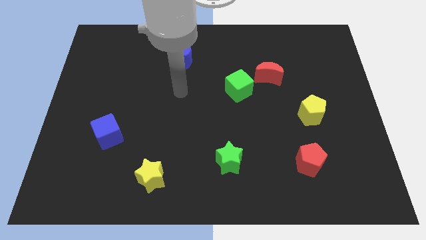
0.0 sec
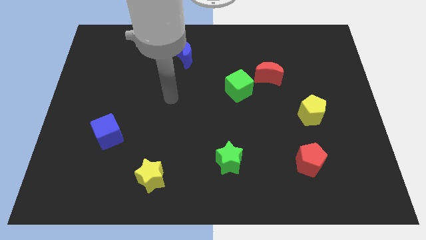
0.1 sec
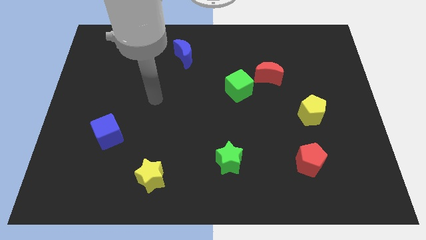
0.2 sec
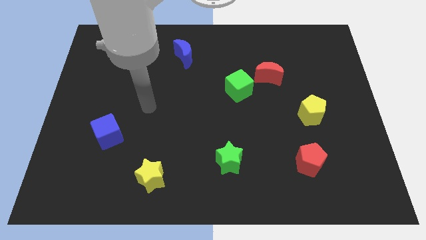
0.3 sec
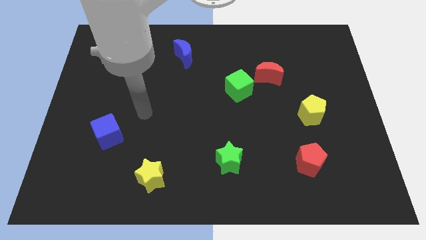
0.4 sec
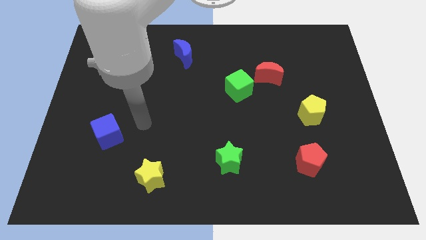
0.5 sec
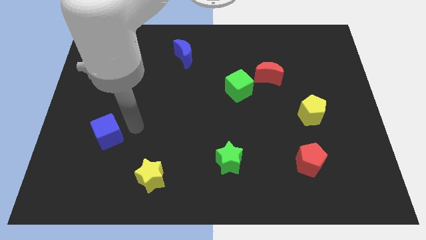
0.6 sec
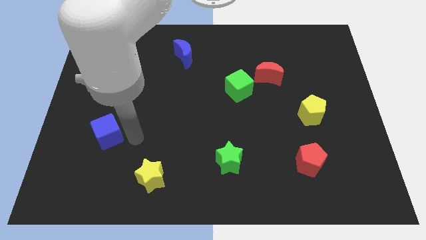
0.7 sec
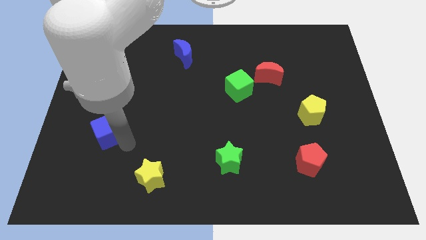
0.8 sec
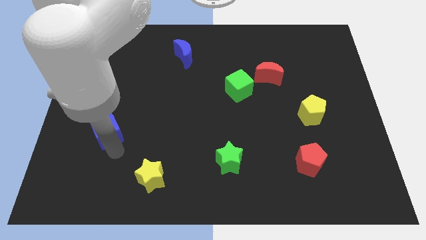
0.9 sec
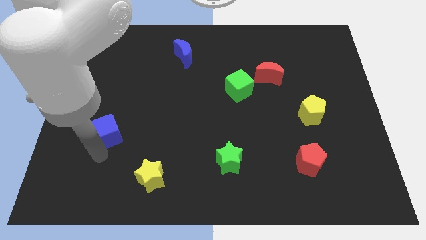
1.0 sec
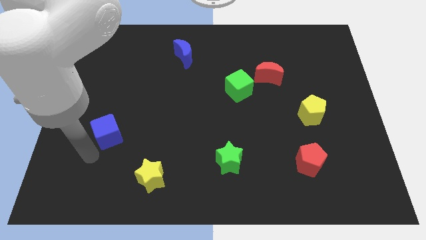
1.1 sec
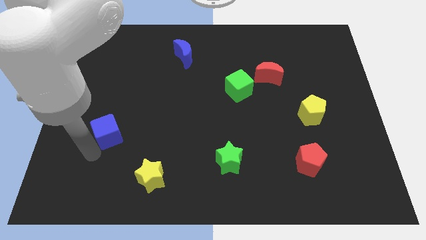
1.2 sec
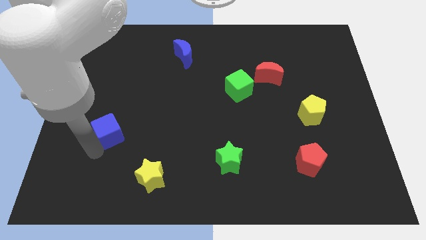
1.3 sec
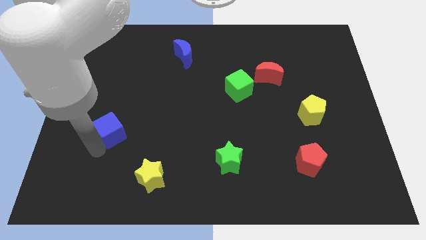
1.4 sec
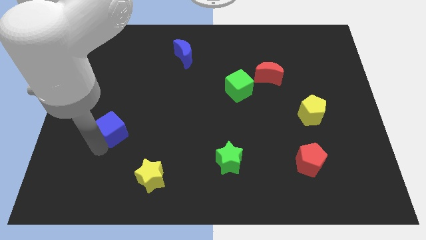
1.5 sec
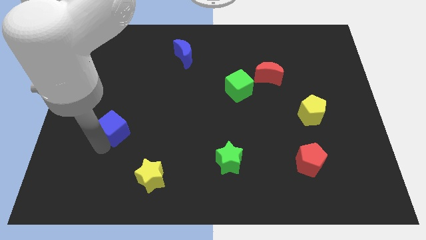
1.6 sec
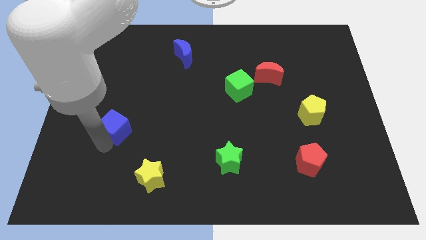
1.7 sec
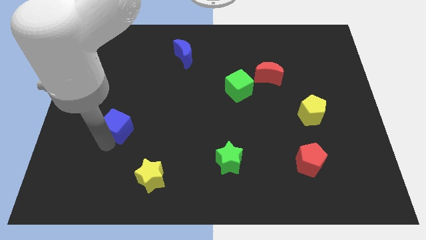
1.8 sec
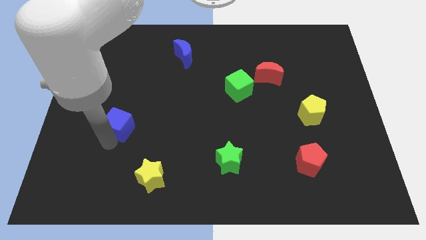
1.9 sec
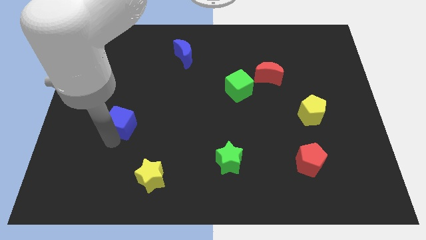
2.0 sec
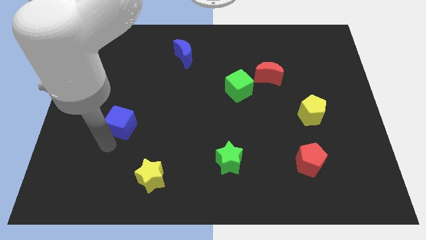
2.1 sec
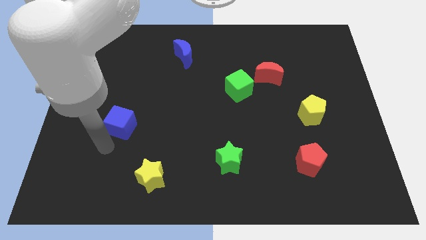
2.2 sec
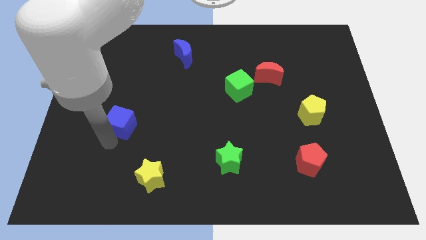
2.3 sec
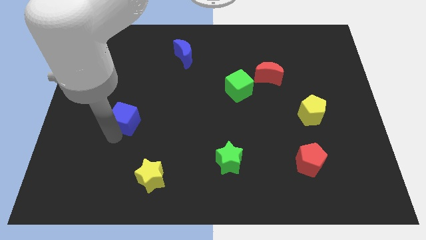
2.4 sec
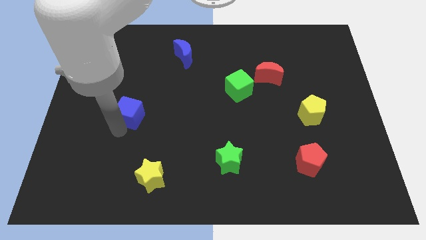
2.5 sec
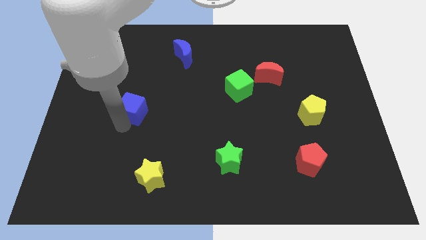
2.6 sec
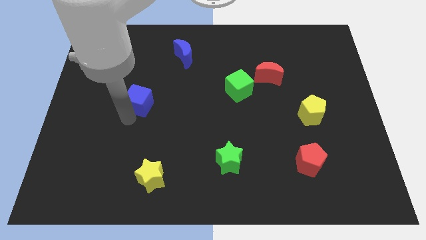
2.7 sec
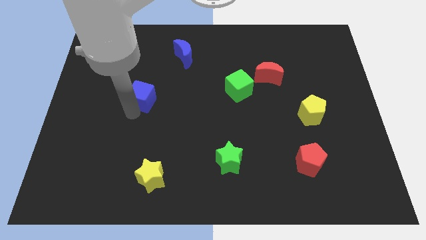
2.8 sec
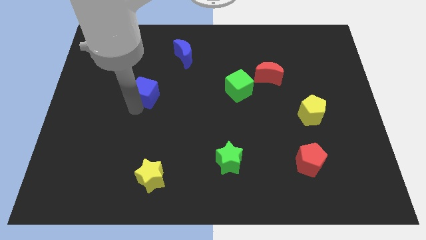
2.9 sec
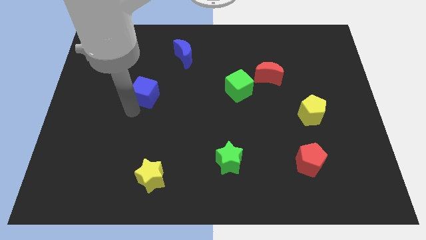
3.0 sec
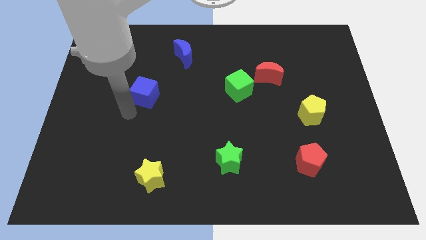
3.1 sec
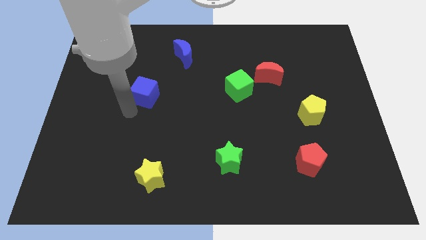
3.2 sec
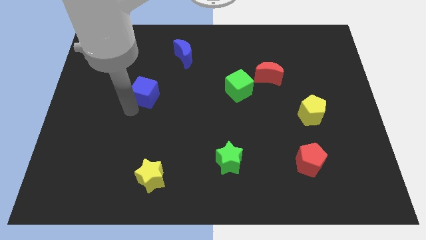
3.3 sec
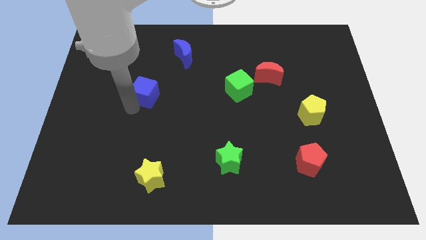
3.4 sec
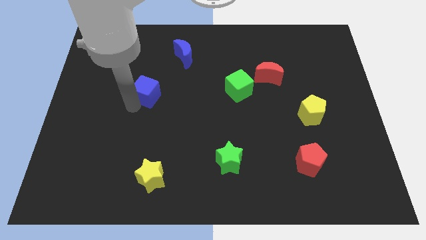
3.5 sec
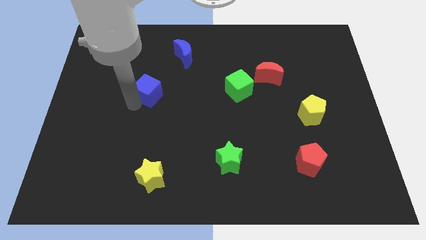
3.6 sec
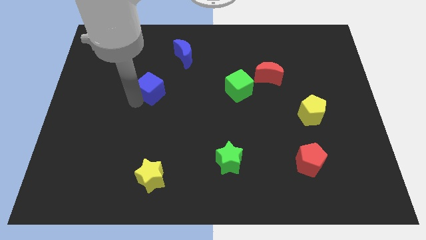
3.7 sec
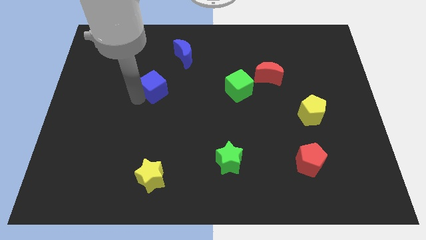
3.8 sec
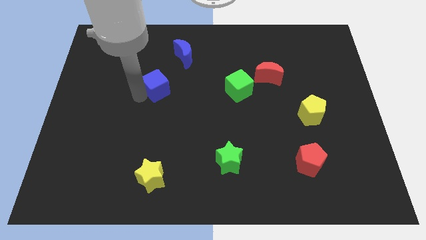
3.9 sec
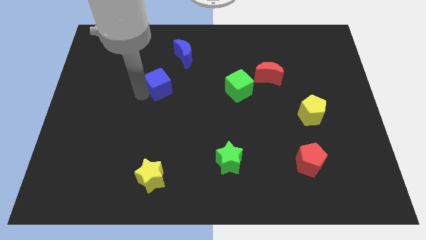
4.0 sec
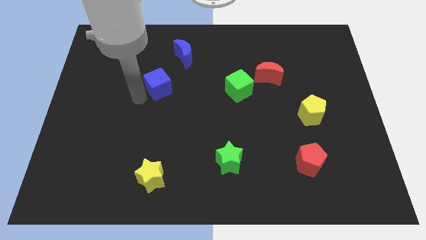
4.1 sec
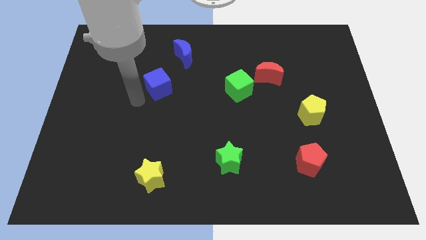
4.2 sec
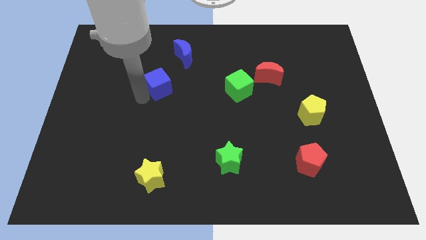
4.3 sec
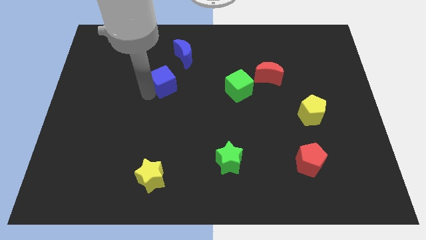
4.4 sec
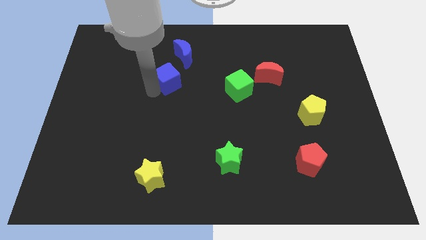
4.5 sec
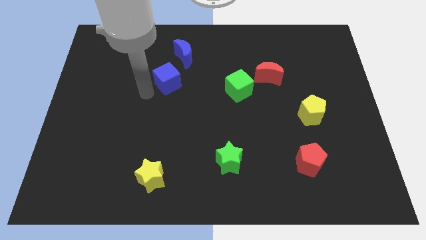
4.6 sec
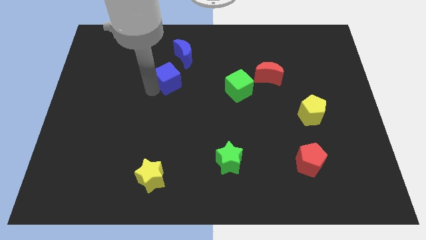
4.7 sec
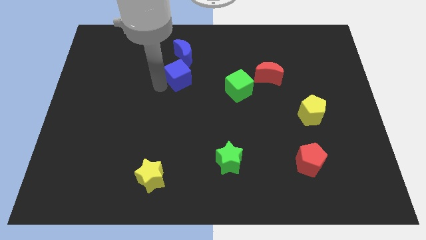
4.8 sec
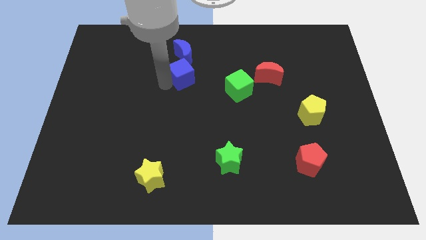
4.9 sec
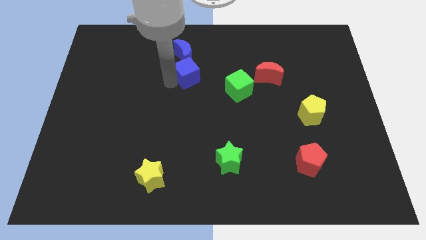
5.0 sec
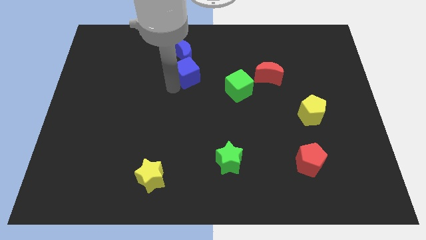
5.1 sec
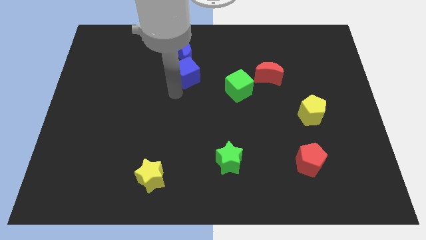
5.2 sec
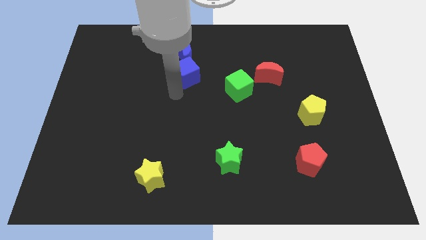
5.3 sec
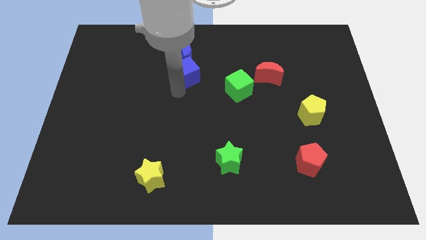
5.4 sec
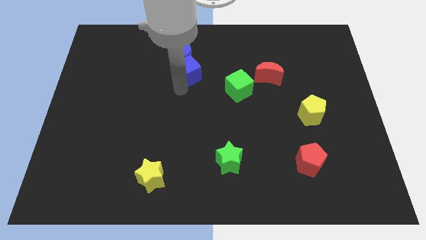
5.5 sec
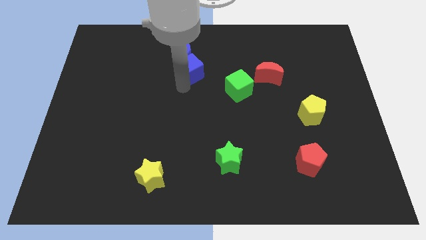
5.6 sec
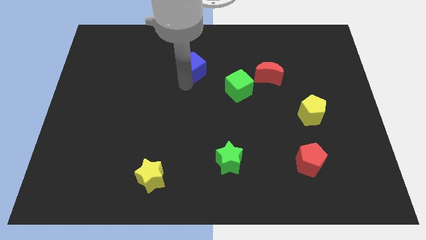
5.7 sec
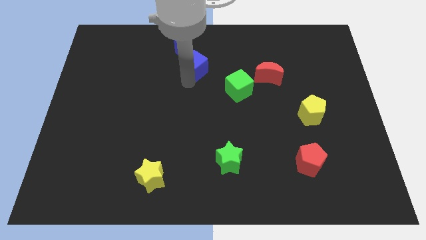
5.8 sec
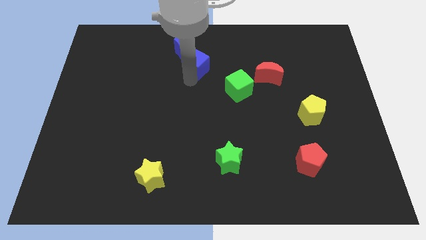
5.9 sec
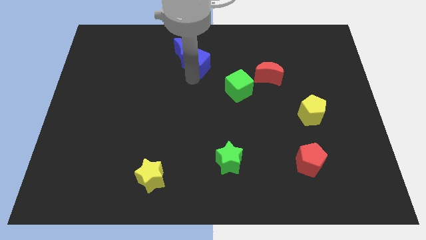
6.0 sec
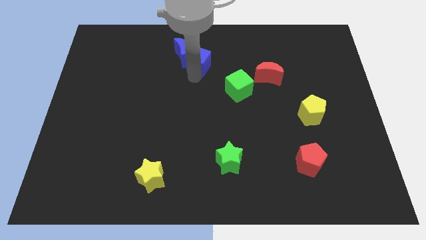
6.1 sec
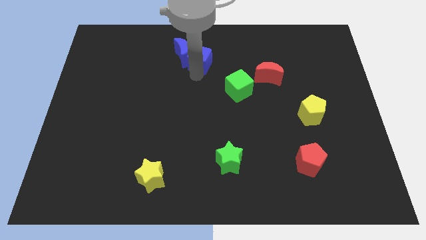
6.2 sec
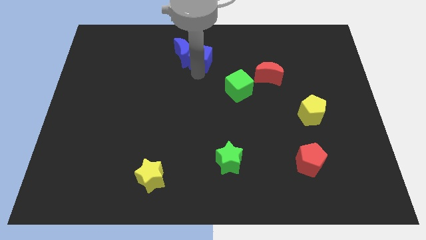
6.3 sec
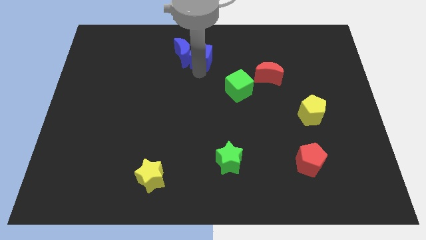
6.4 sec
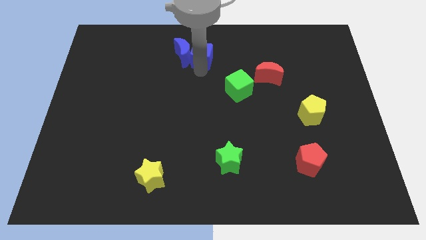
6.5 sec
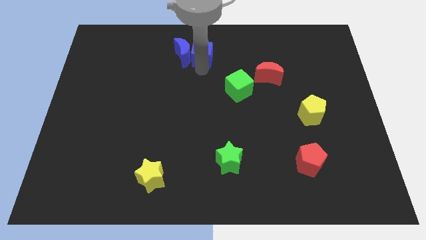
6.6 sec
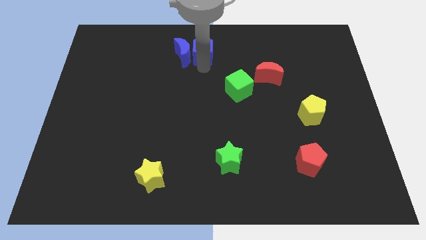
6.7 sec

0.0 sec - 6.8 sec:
put the blue cube to the top side

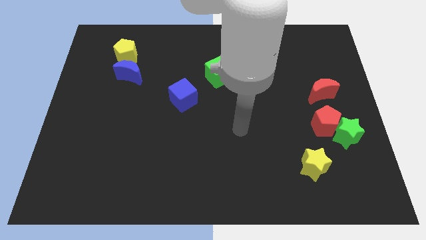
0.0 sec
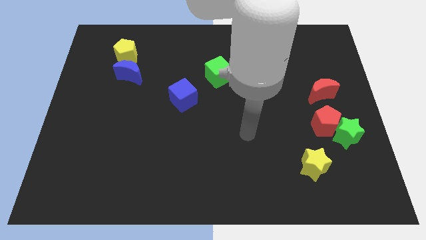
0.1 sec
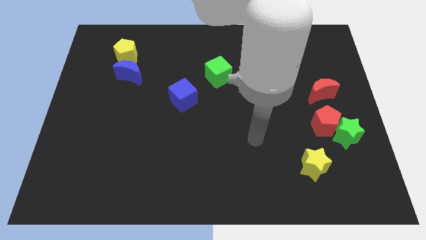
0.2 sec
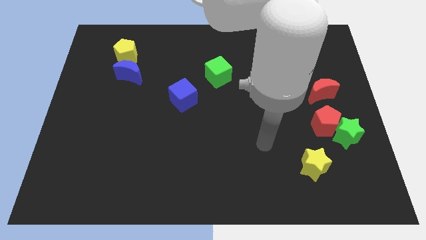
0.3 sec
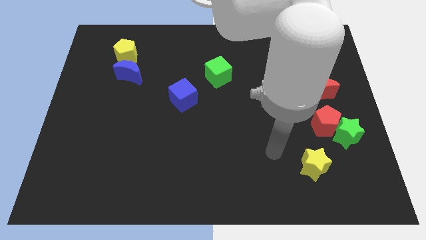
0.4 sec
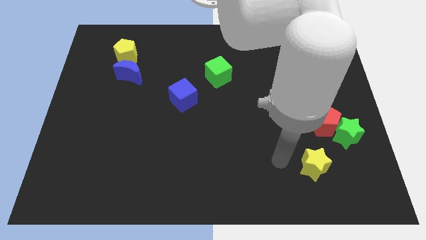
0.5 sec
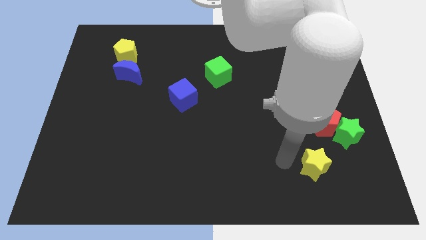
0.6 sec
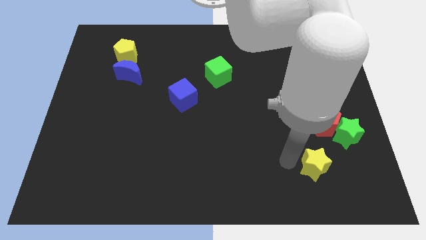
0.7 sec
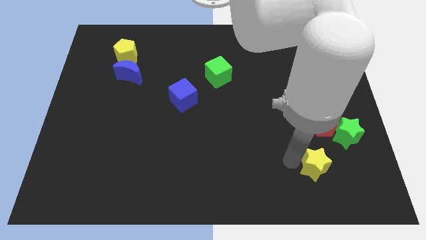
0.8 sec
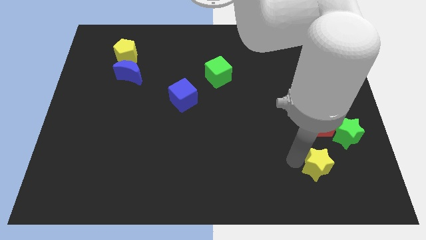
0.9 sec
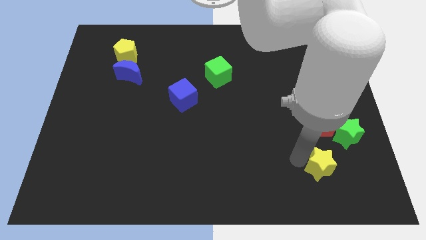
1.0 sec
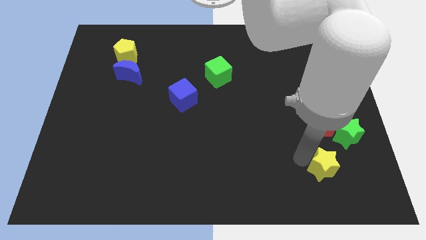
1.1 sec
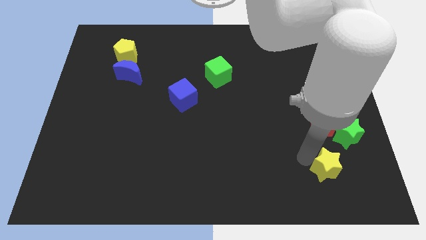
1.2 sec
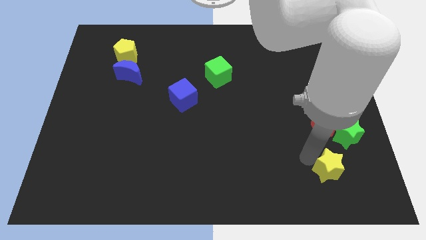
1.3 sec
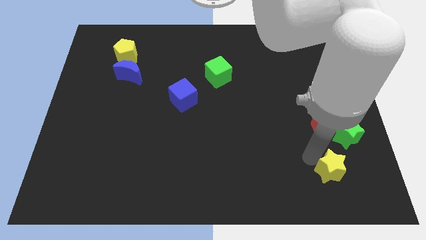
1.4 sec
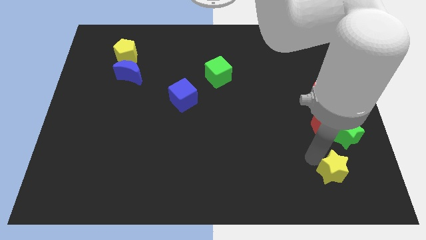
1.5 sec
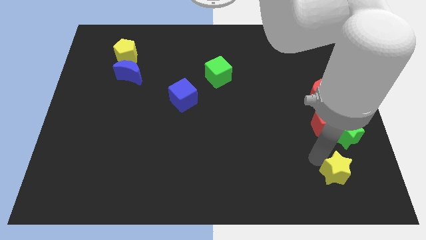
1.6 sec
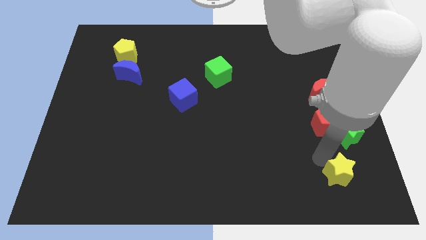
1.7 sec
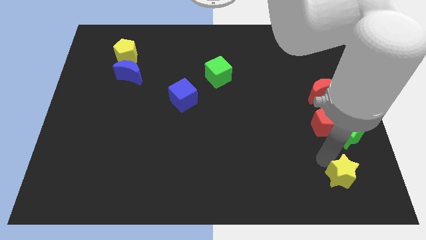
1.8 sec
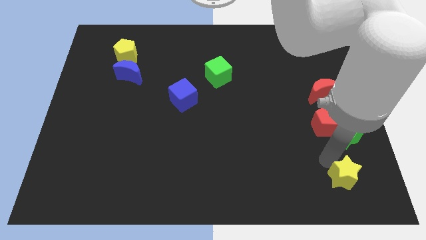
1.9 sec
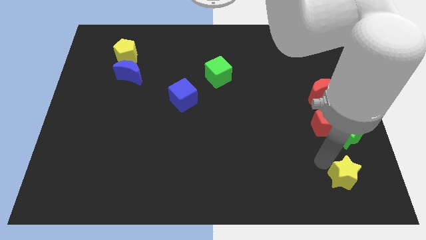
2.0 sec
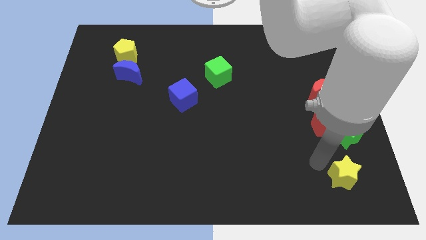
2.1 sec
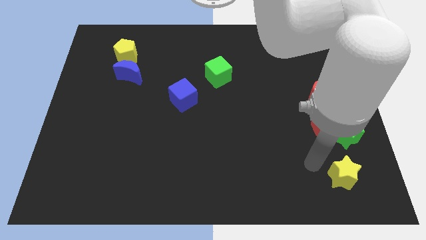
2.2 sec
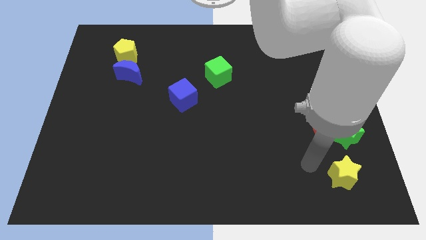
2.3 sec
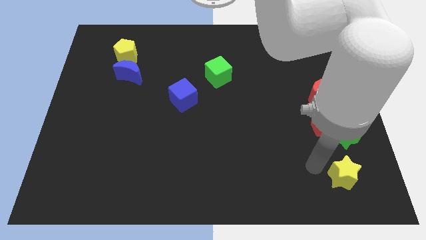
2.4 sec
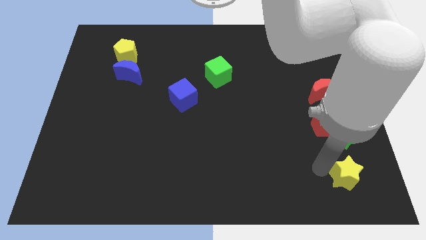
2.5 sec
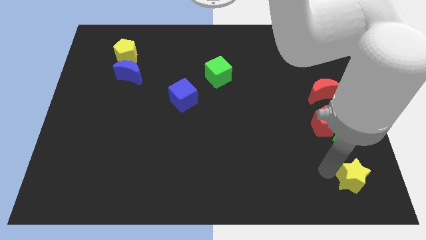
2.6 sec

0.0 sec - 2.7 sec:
push the yellow star to the lower right corner
